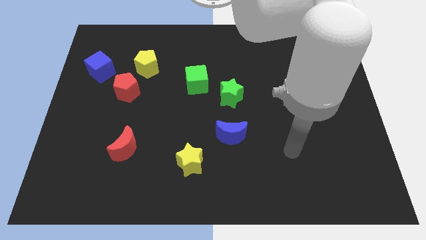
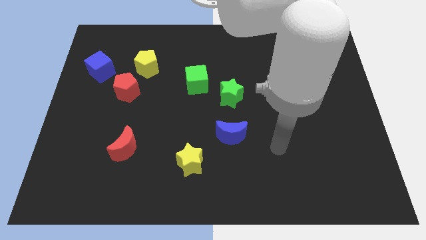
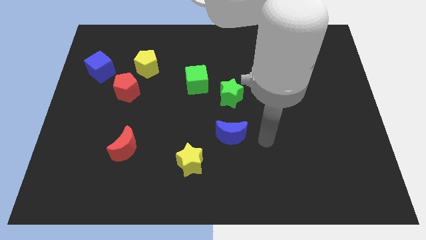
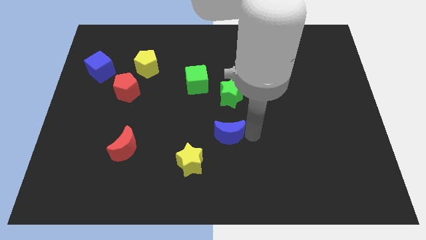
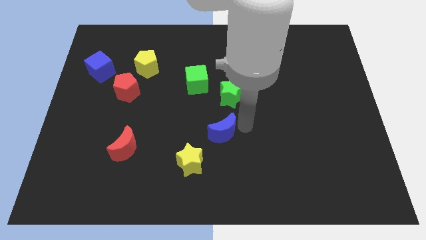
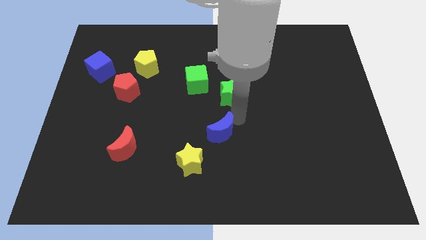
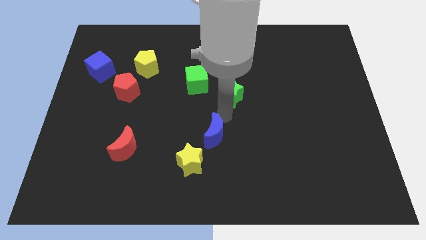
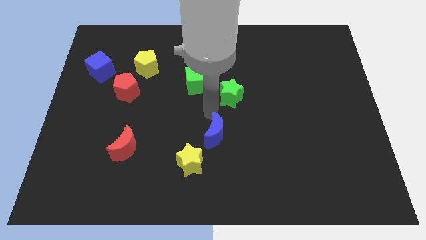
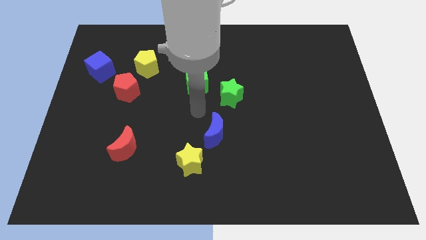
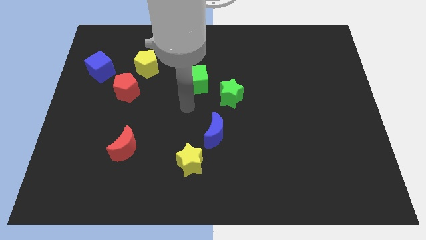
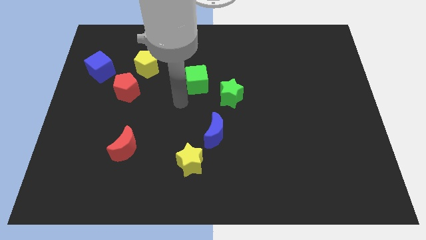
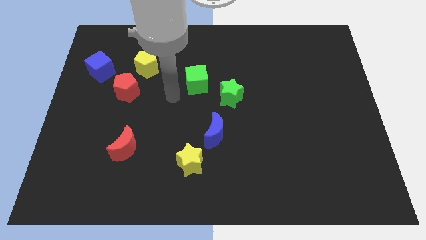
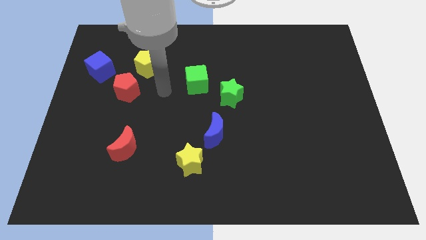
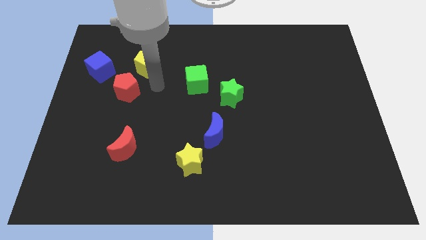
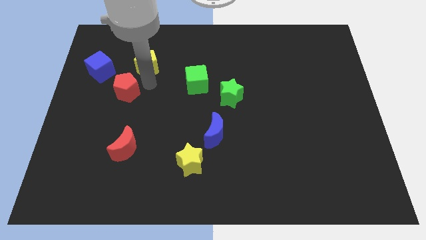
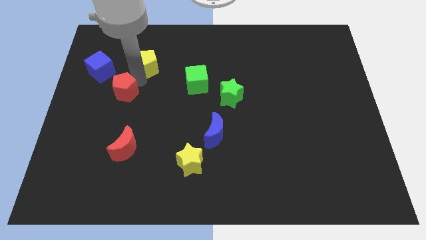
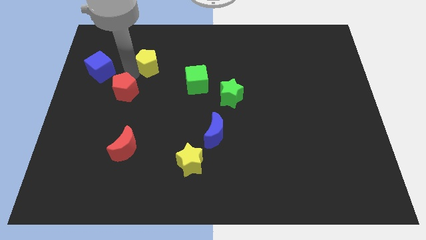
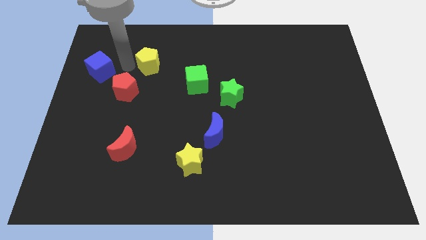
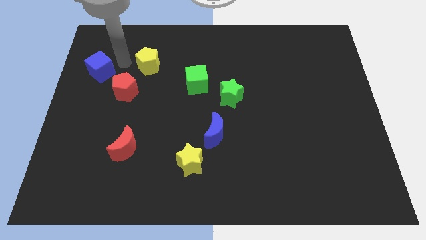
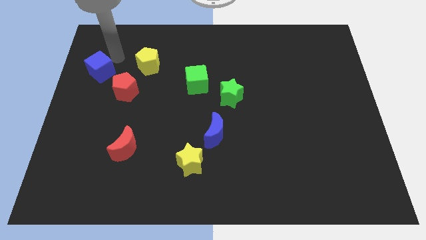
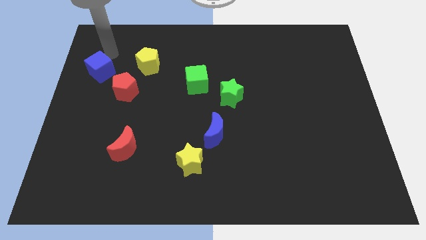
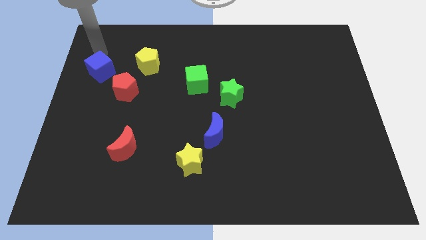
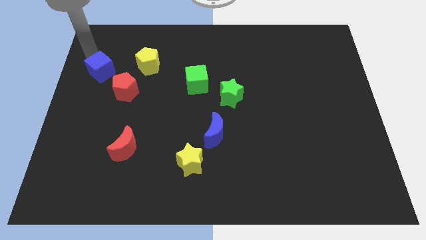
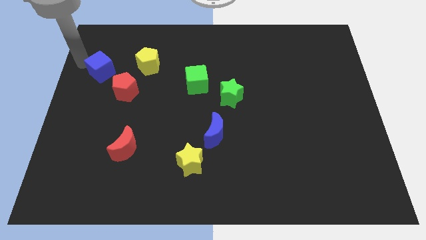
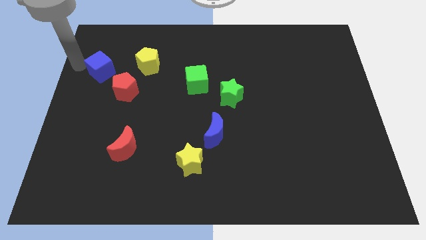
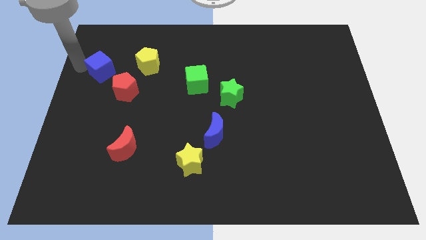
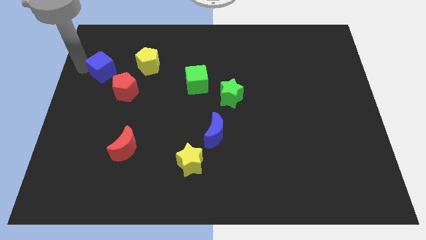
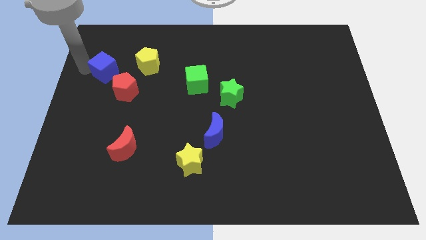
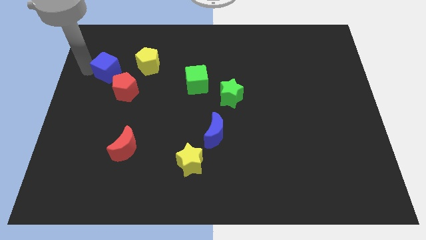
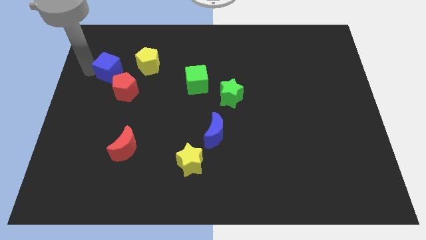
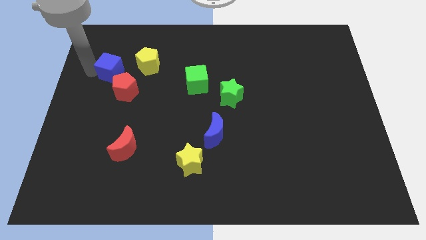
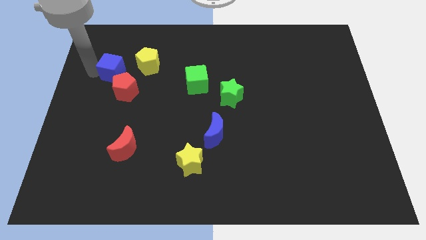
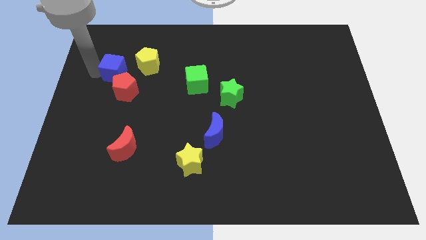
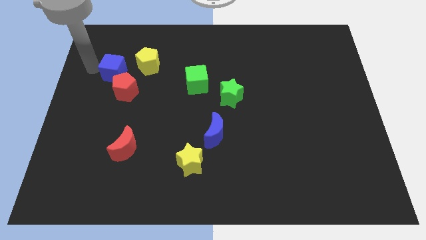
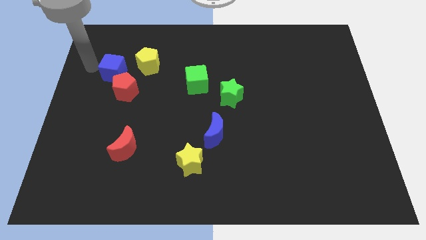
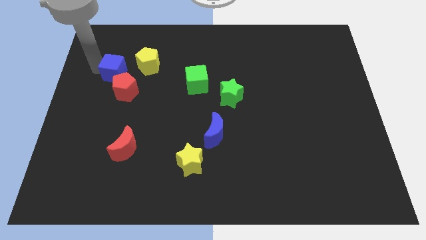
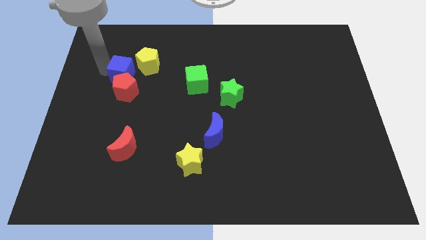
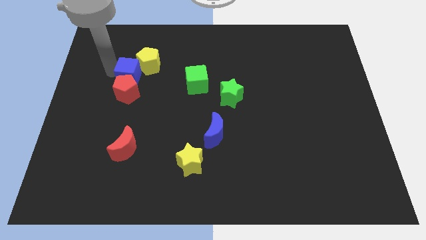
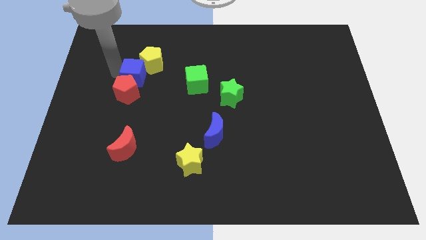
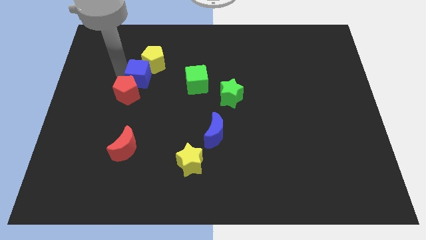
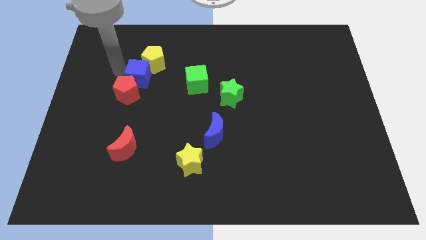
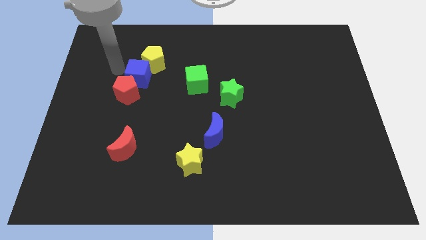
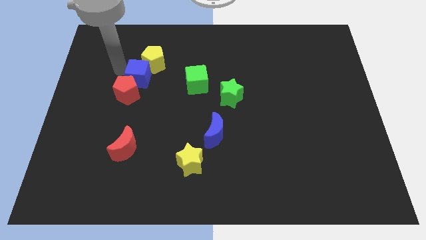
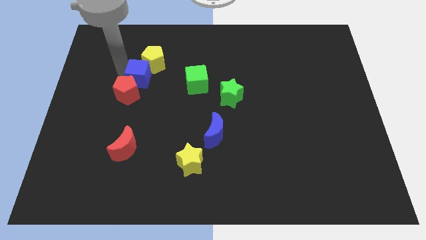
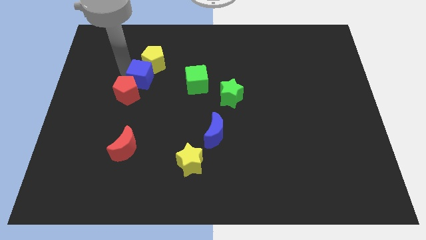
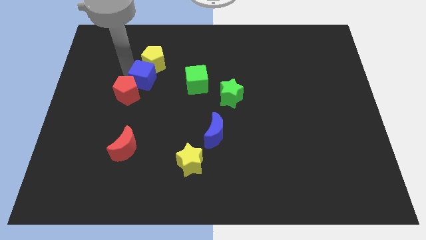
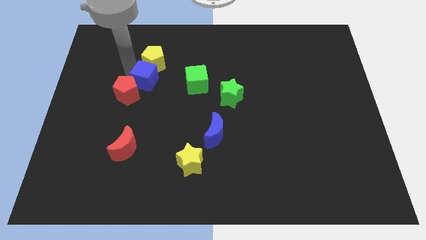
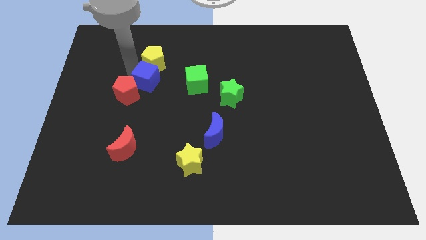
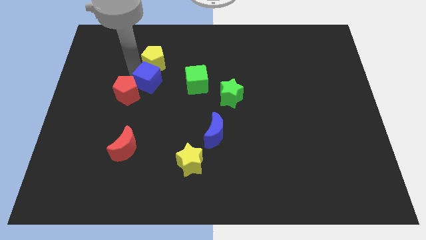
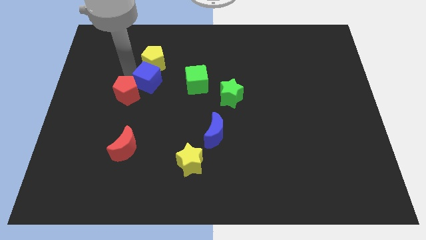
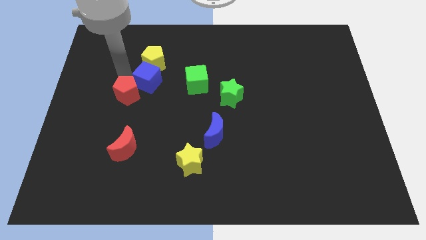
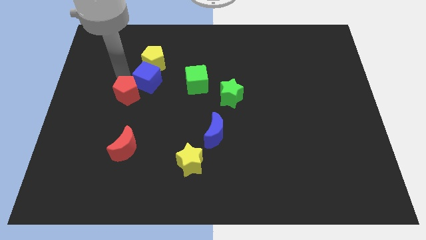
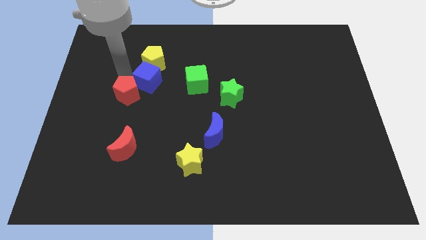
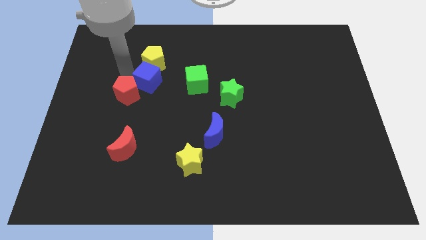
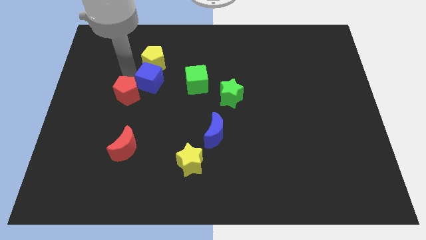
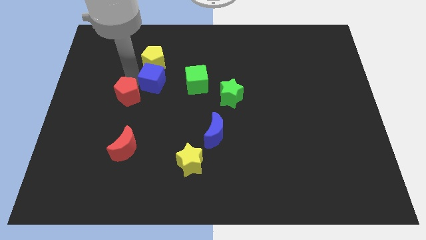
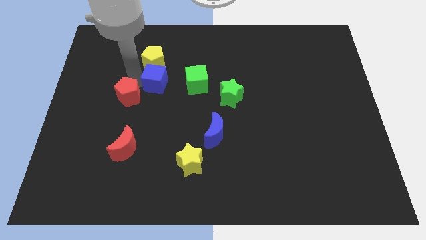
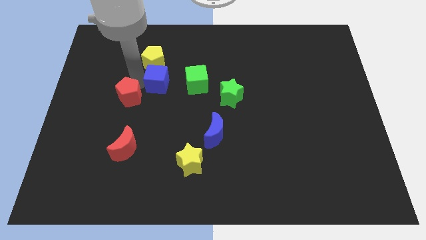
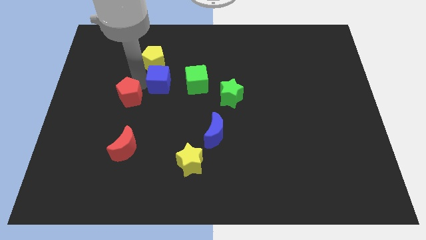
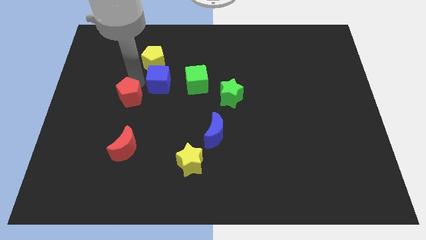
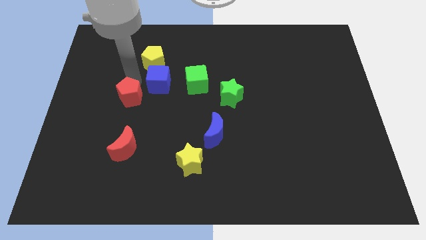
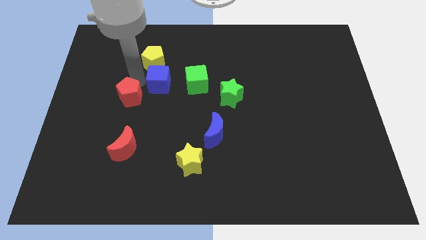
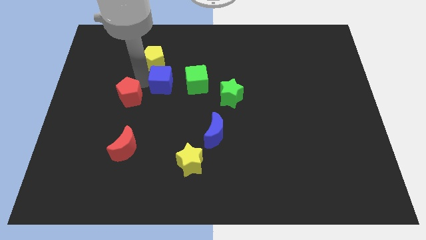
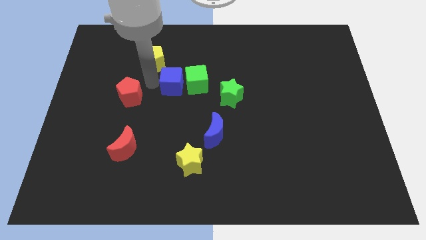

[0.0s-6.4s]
slide the blue cube towards the green cube

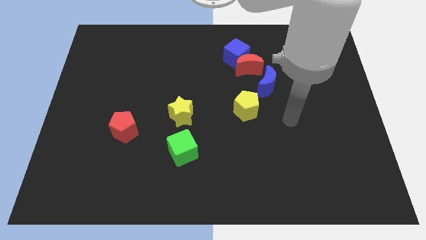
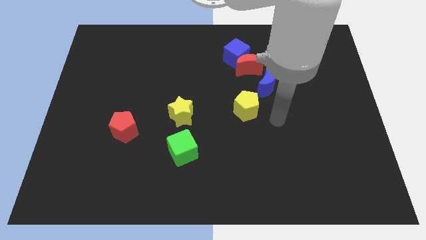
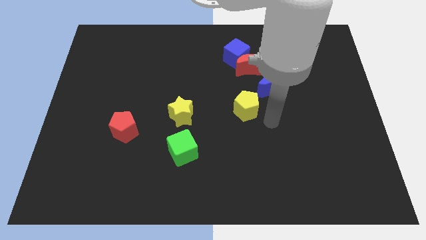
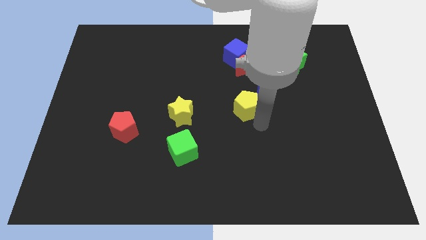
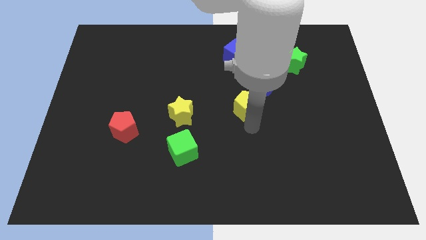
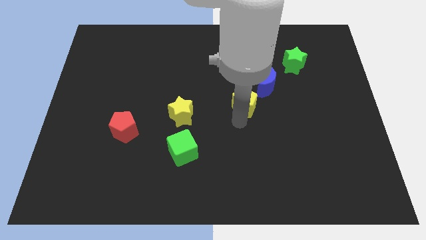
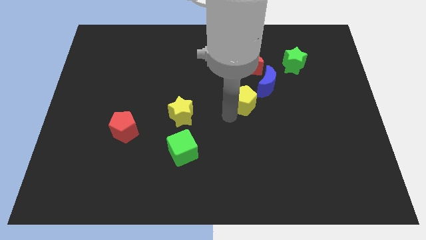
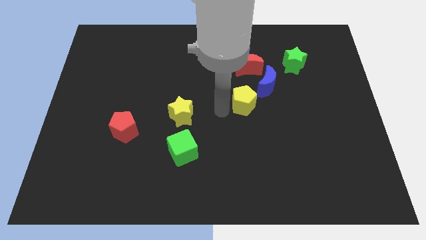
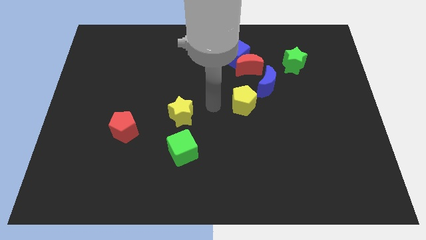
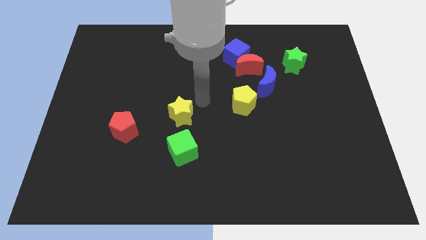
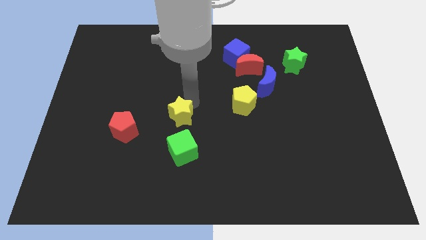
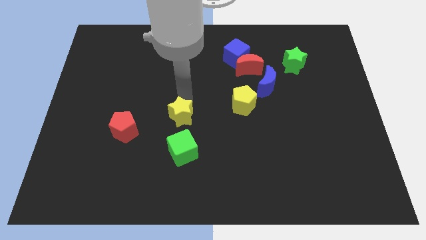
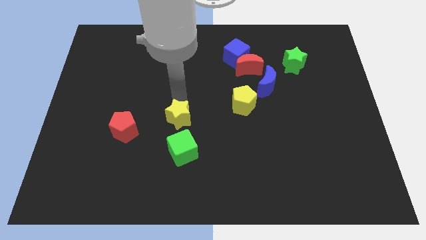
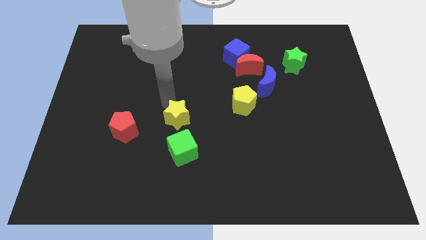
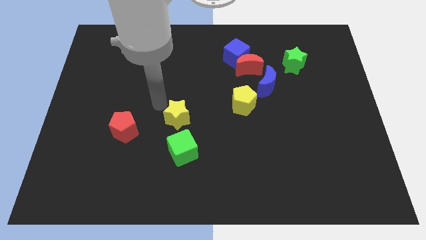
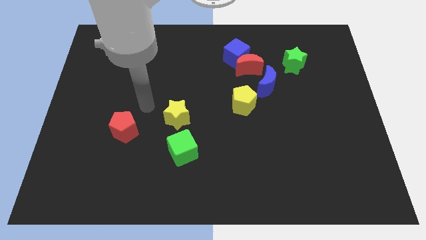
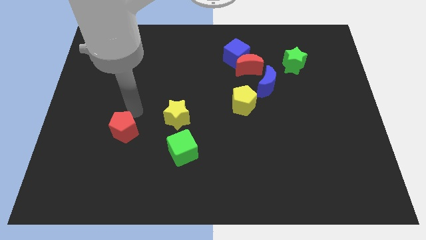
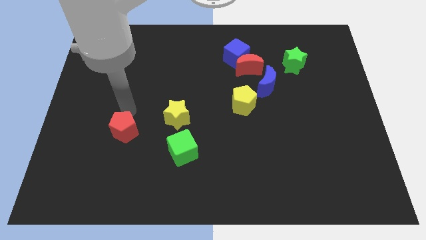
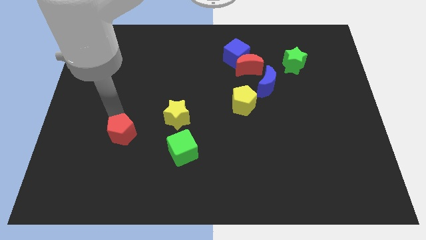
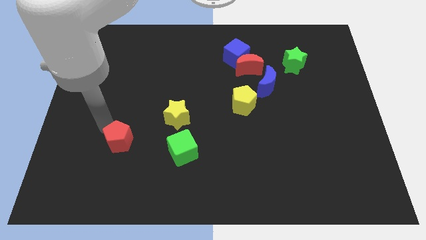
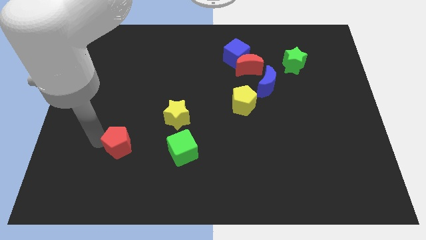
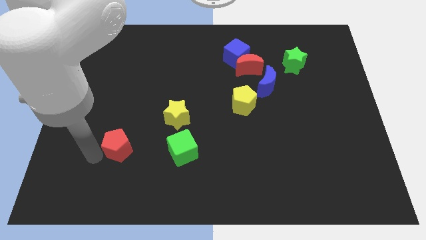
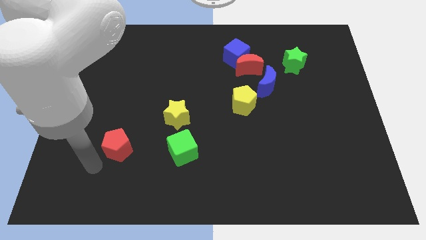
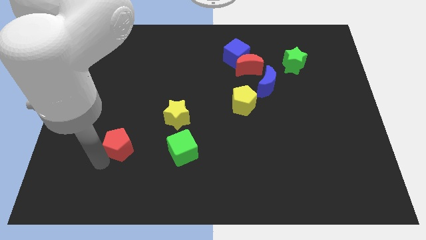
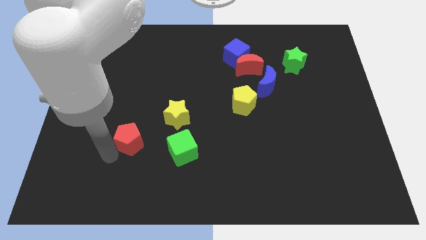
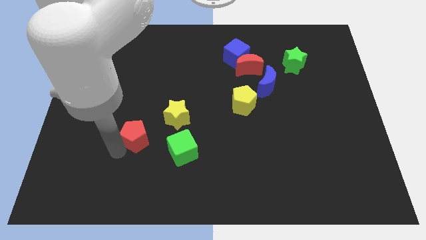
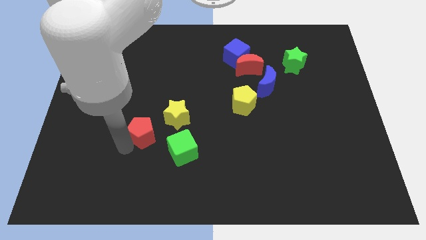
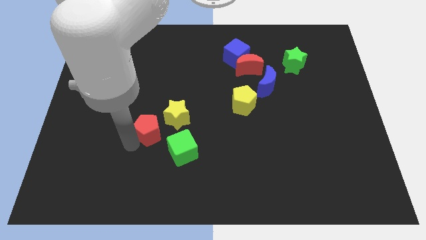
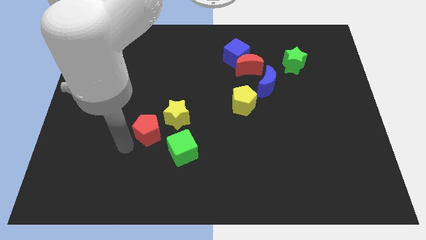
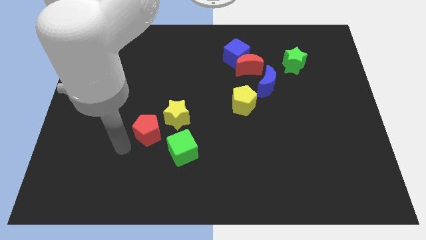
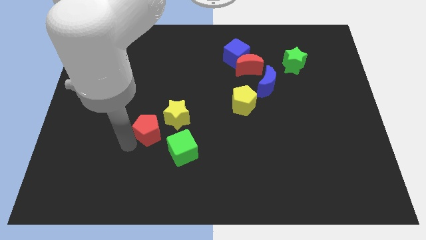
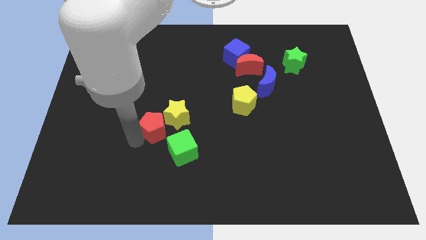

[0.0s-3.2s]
slide the red pentagon to the yellow star
